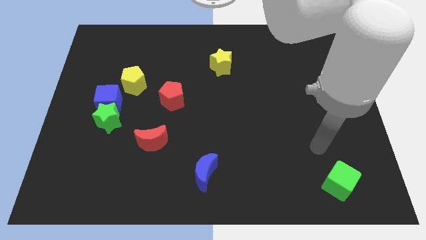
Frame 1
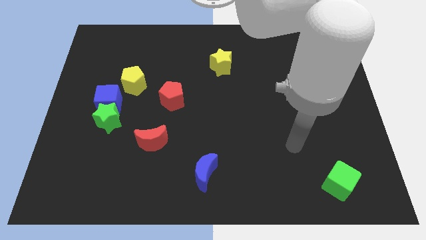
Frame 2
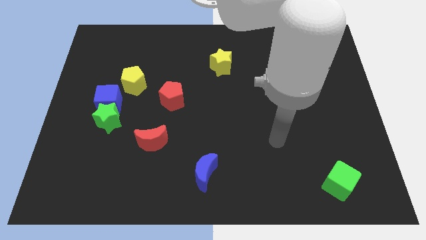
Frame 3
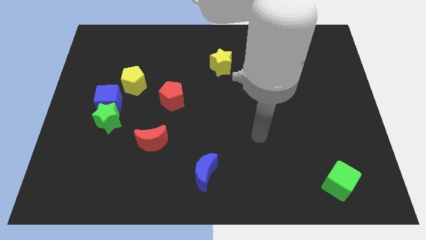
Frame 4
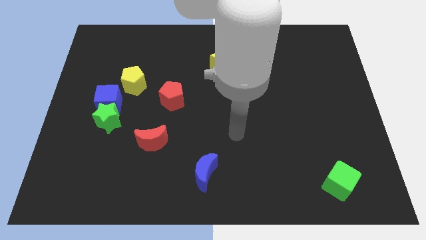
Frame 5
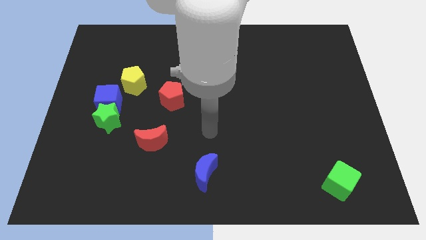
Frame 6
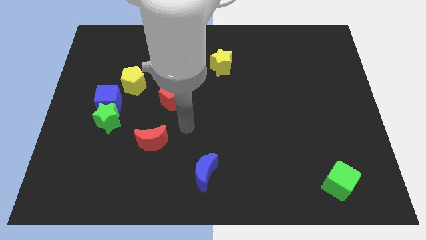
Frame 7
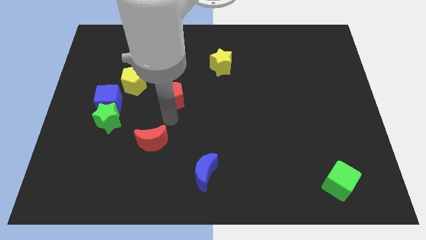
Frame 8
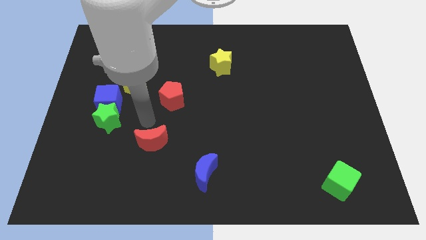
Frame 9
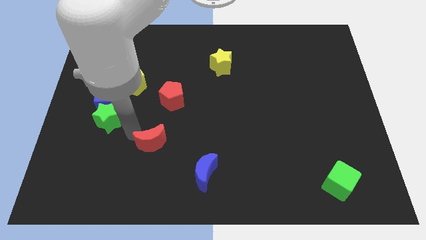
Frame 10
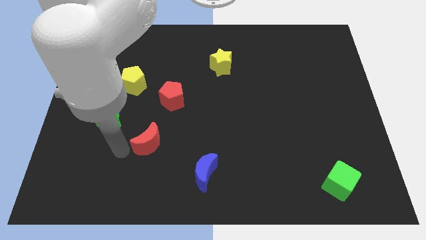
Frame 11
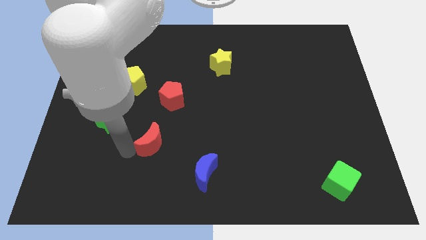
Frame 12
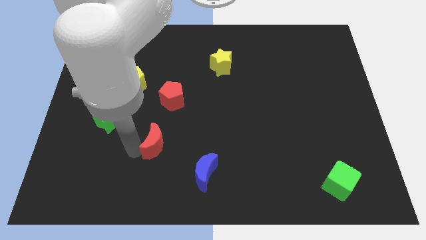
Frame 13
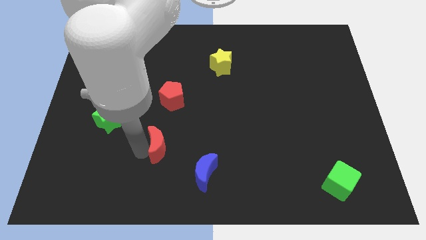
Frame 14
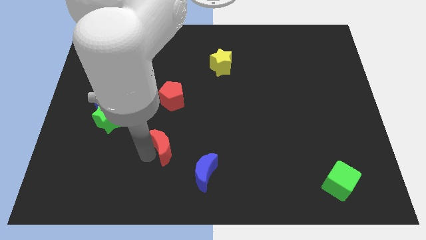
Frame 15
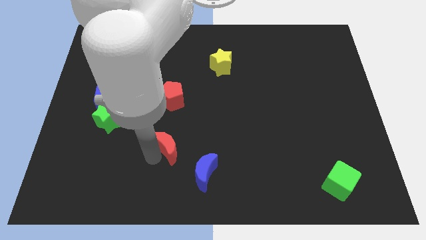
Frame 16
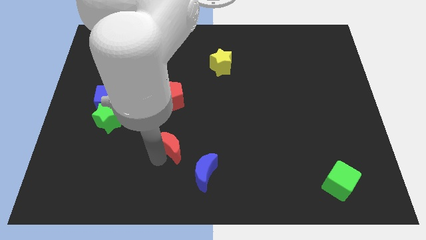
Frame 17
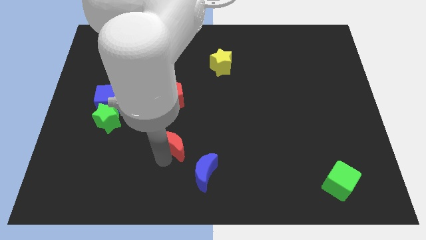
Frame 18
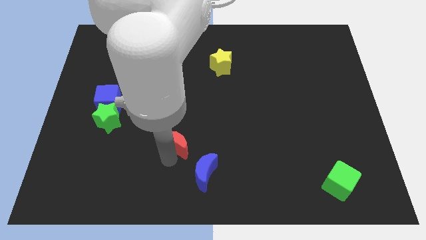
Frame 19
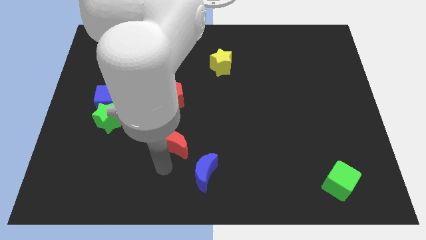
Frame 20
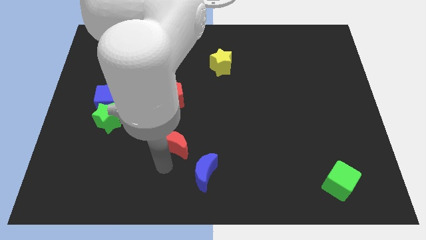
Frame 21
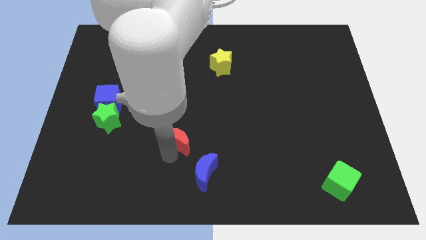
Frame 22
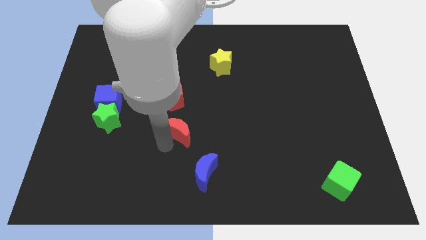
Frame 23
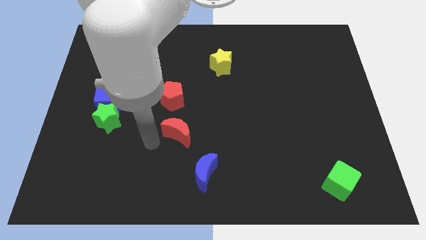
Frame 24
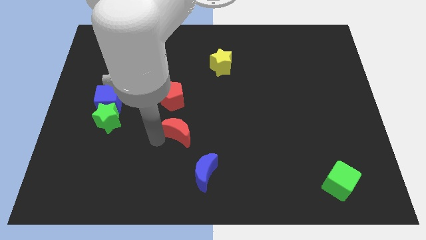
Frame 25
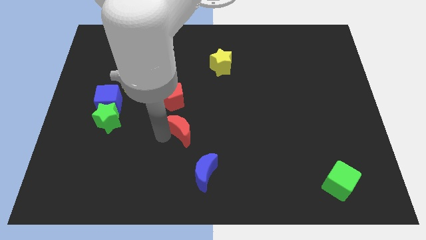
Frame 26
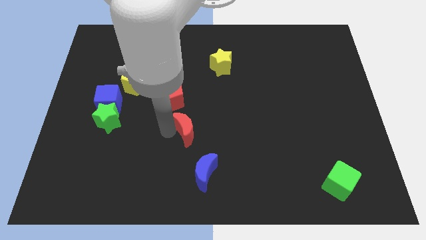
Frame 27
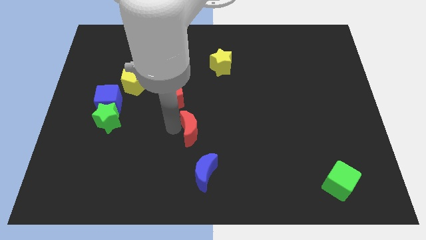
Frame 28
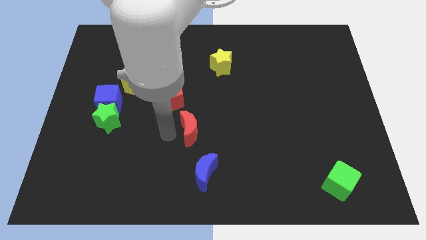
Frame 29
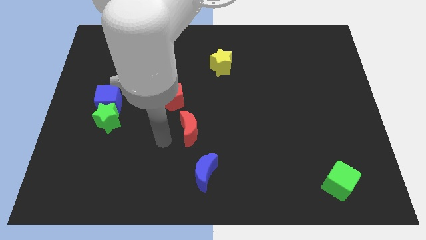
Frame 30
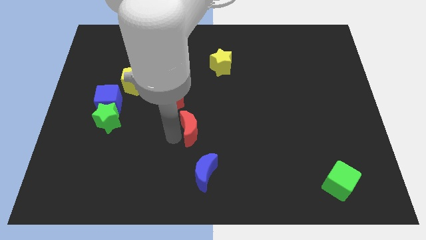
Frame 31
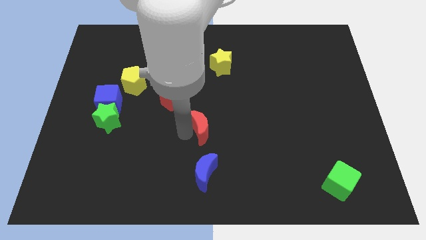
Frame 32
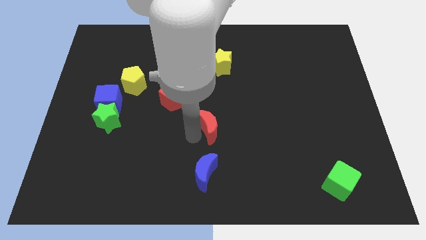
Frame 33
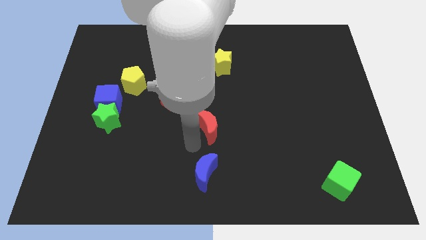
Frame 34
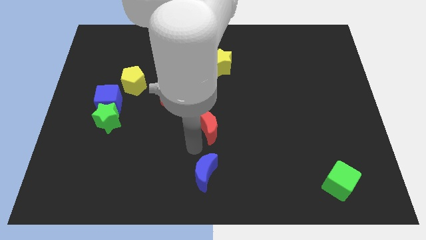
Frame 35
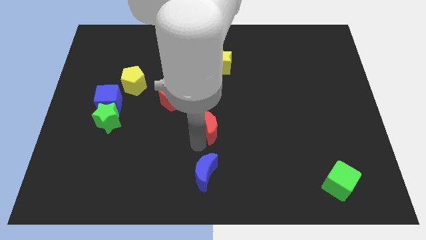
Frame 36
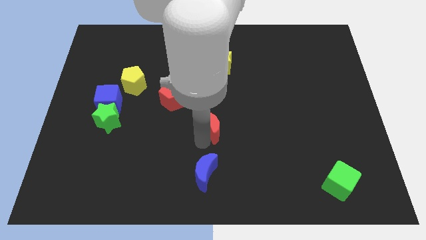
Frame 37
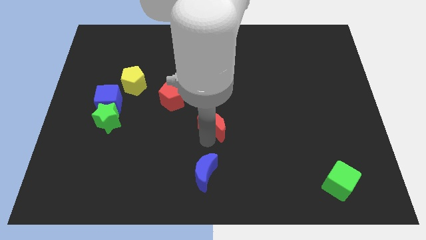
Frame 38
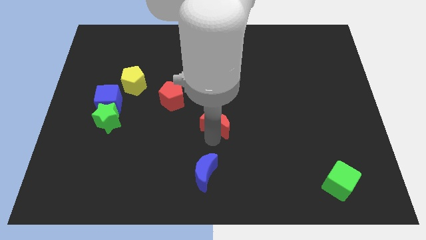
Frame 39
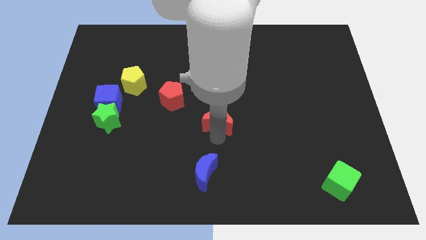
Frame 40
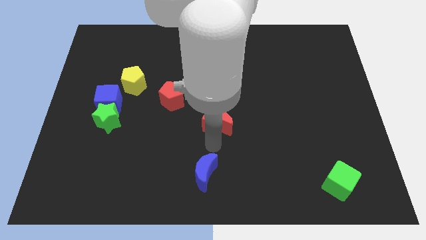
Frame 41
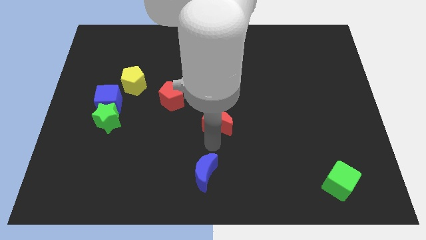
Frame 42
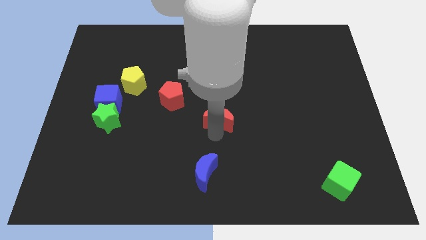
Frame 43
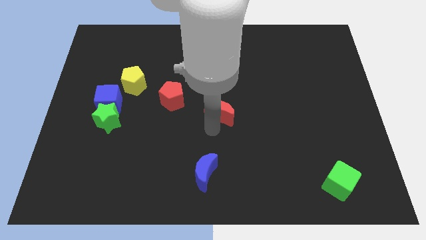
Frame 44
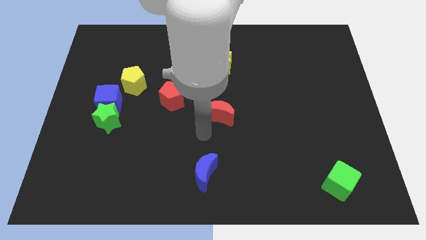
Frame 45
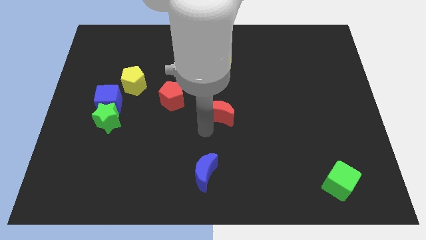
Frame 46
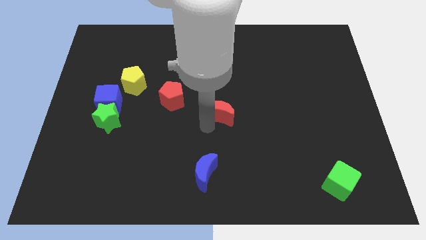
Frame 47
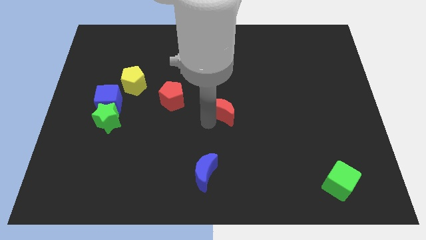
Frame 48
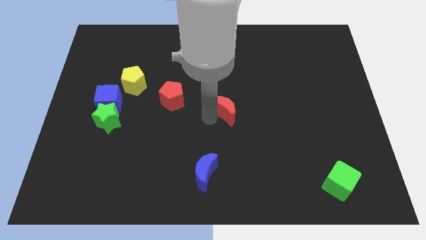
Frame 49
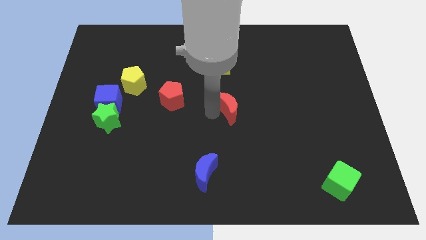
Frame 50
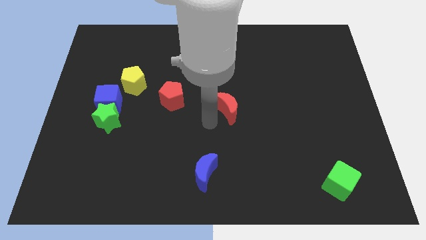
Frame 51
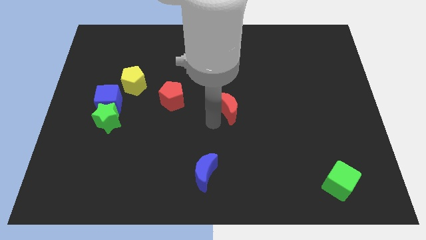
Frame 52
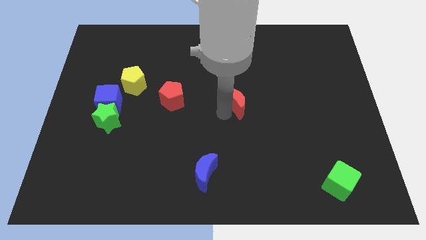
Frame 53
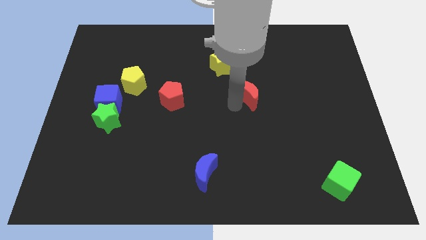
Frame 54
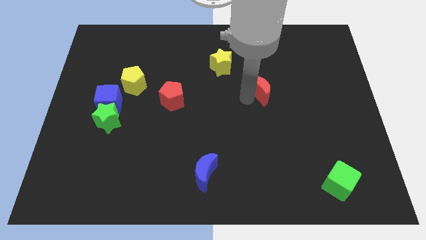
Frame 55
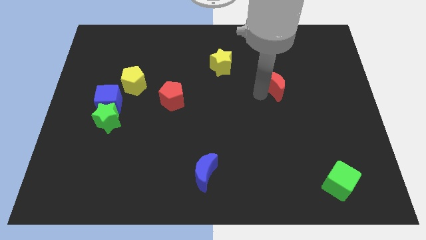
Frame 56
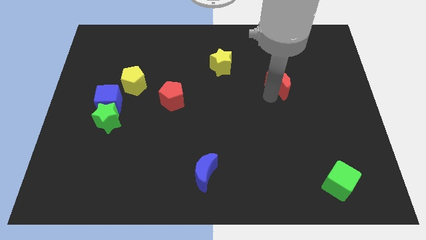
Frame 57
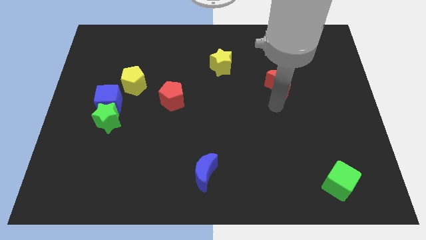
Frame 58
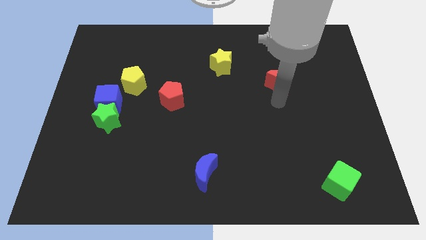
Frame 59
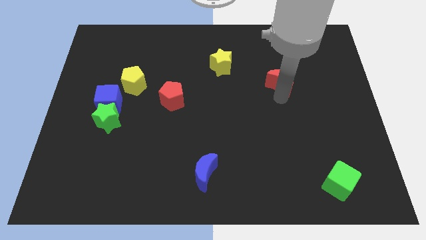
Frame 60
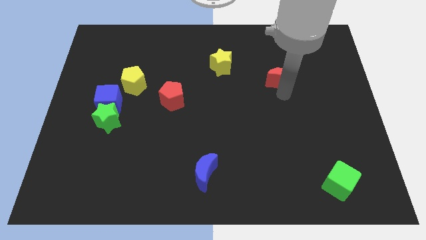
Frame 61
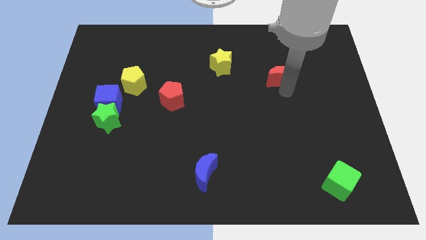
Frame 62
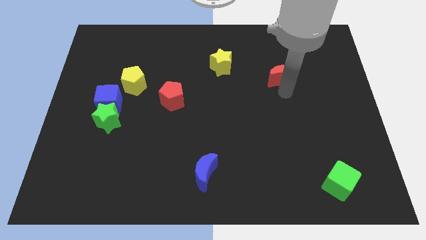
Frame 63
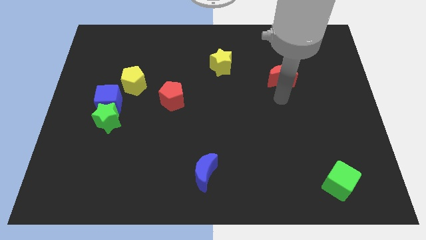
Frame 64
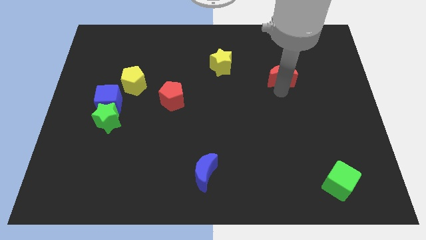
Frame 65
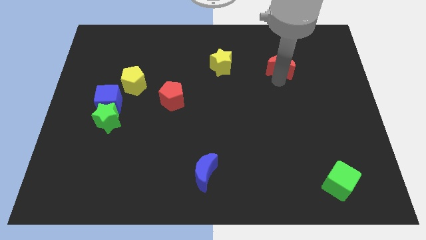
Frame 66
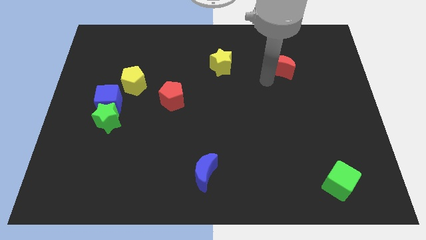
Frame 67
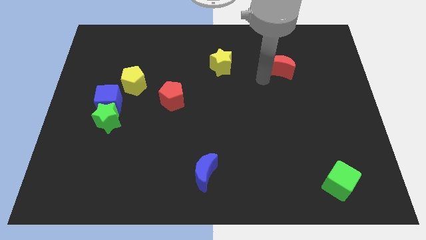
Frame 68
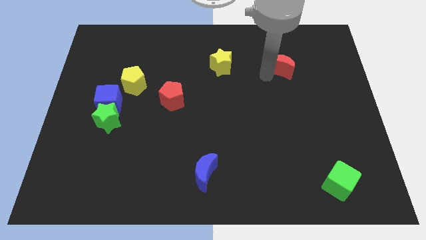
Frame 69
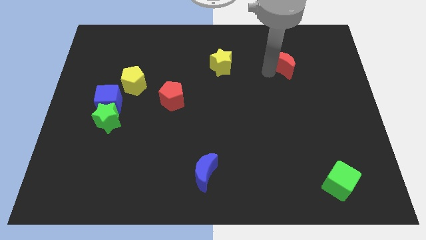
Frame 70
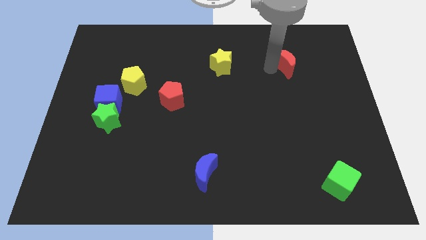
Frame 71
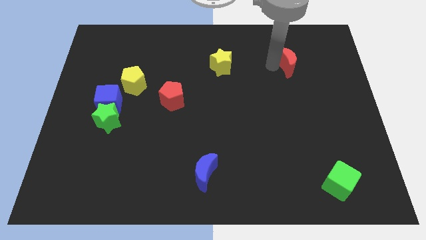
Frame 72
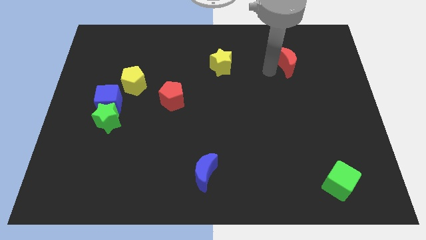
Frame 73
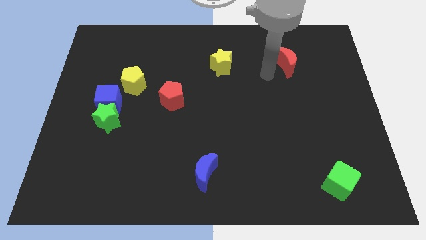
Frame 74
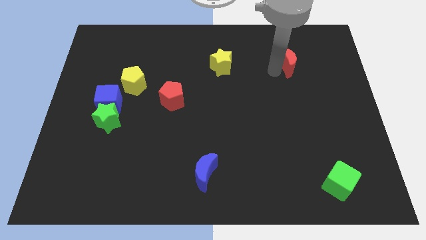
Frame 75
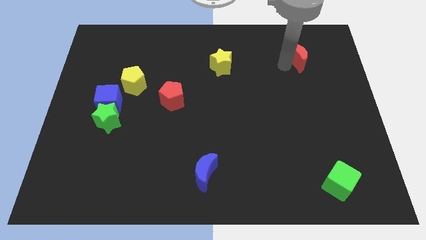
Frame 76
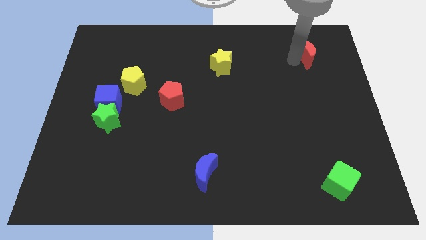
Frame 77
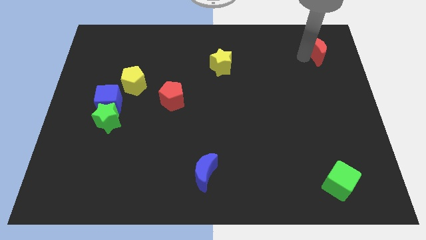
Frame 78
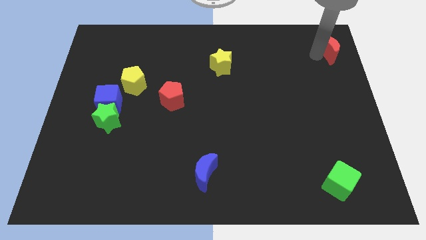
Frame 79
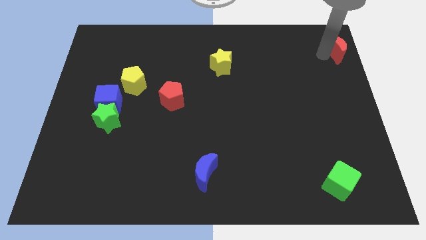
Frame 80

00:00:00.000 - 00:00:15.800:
put the red moon to the top right corner
